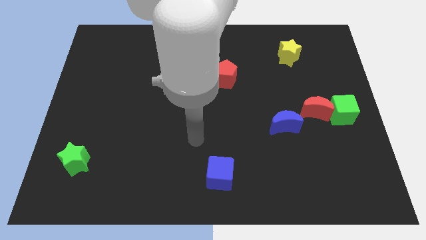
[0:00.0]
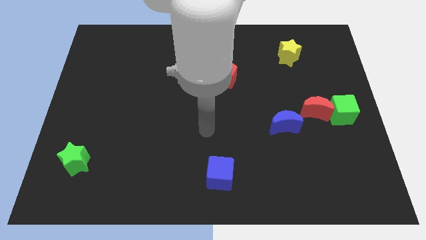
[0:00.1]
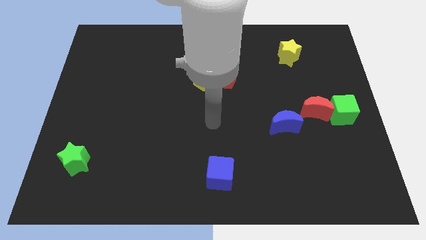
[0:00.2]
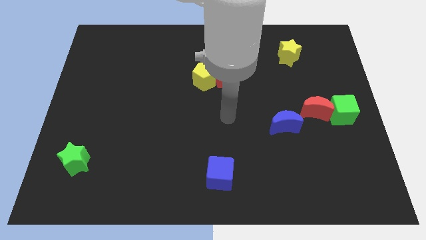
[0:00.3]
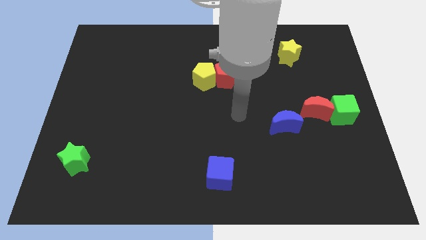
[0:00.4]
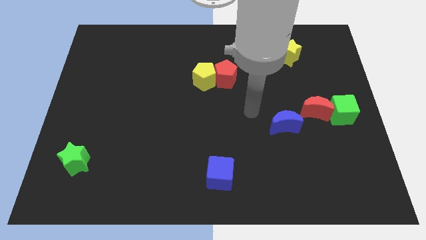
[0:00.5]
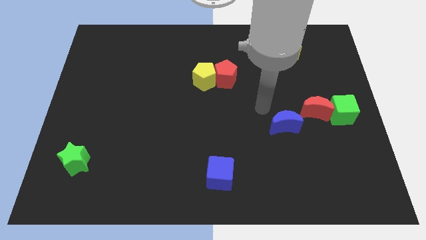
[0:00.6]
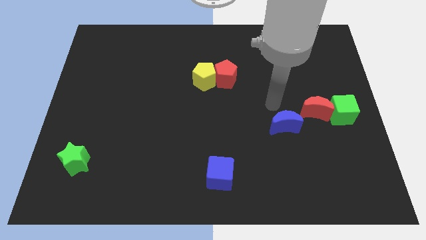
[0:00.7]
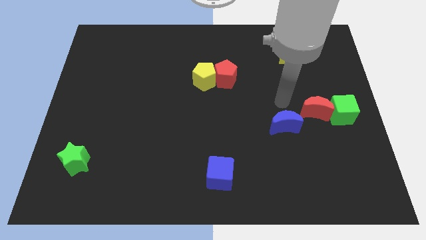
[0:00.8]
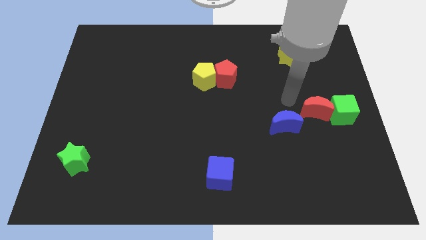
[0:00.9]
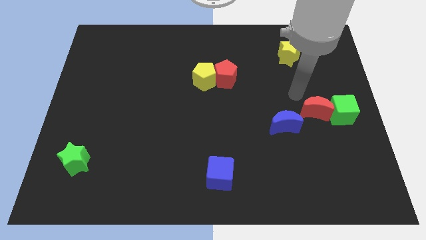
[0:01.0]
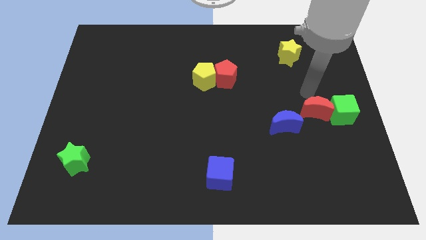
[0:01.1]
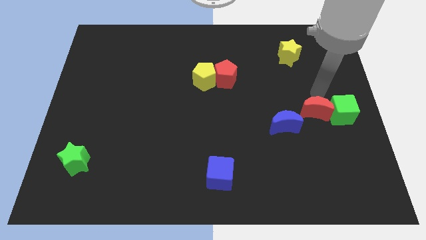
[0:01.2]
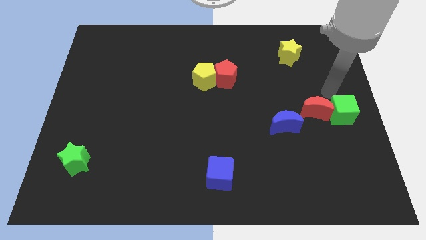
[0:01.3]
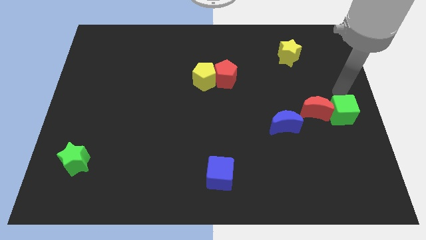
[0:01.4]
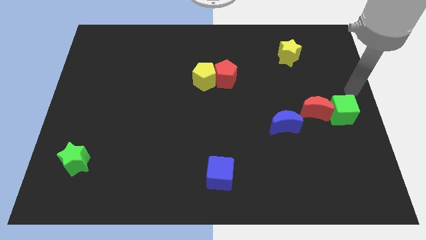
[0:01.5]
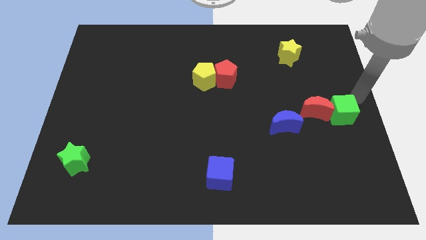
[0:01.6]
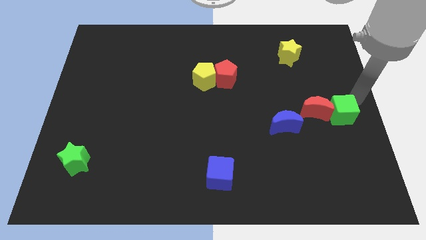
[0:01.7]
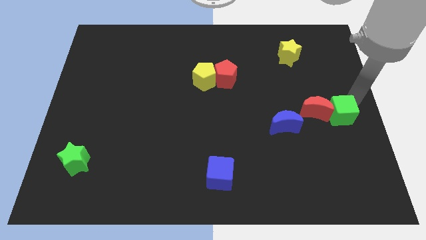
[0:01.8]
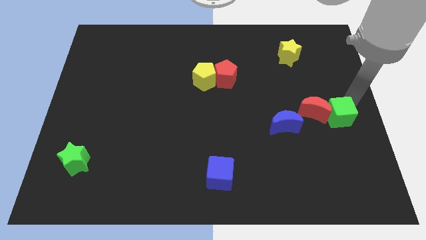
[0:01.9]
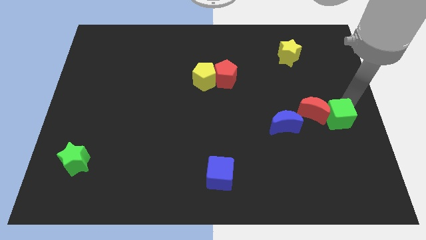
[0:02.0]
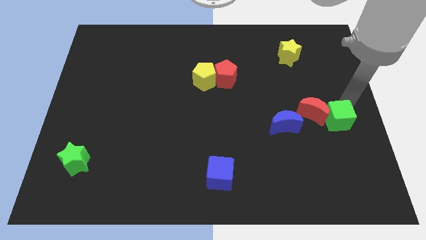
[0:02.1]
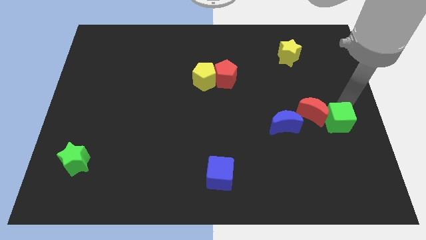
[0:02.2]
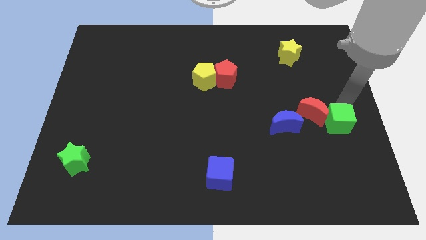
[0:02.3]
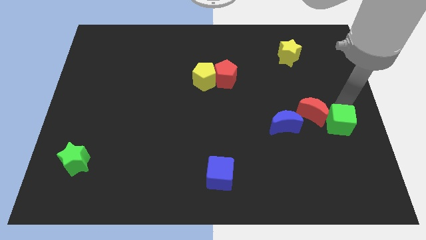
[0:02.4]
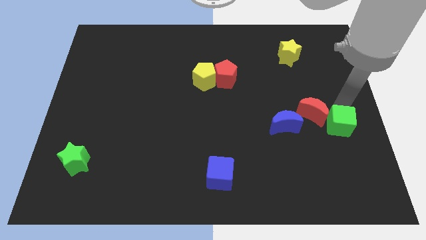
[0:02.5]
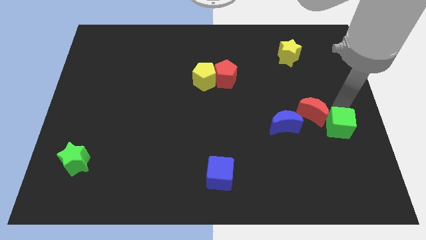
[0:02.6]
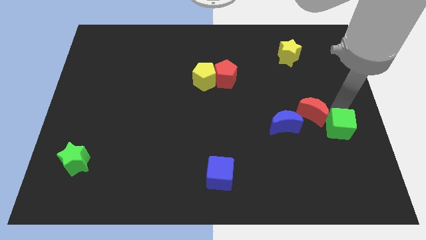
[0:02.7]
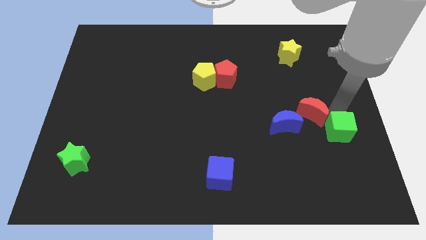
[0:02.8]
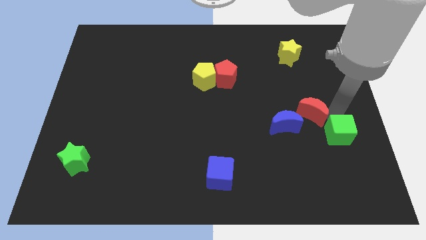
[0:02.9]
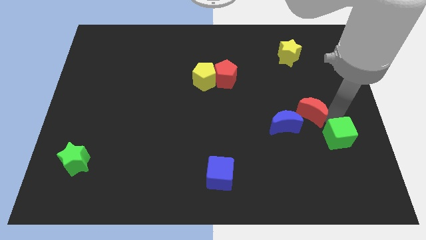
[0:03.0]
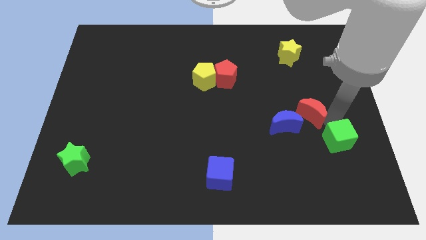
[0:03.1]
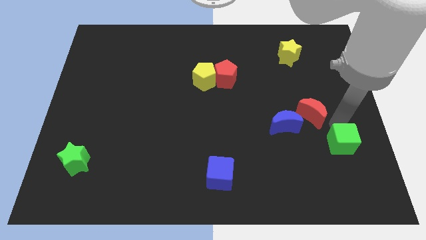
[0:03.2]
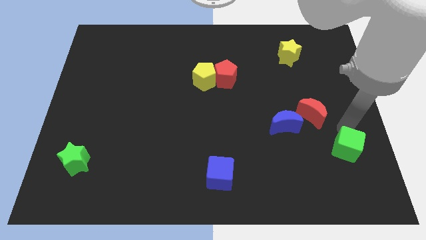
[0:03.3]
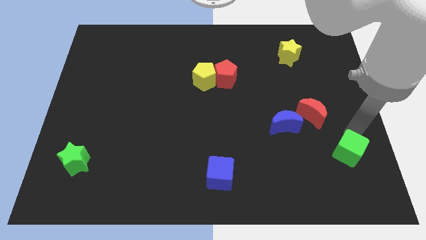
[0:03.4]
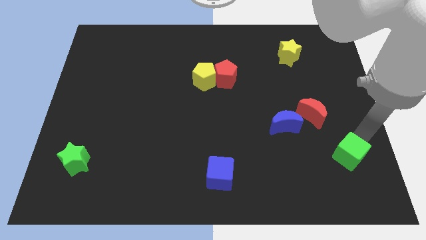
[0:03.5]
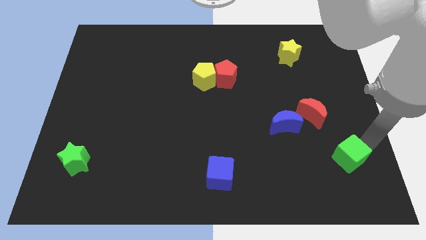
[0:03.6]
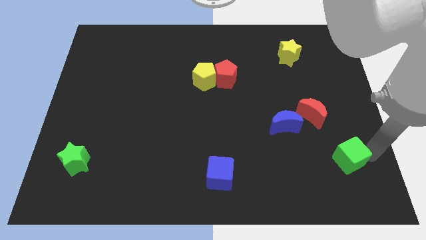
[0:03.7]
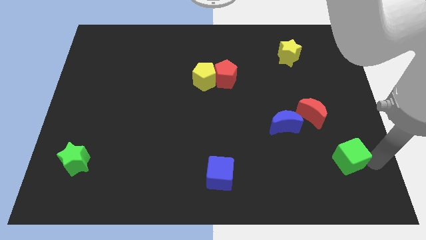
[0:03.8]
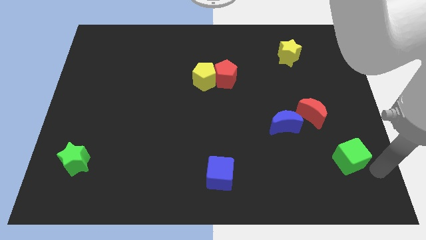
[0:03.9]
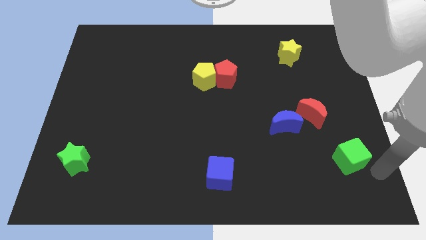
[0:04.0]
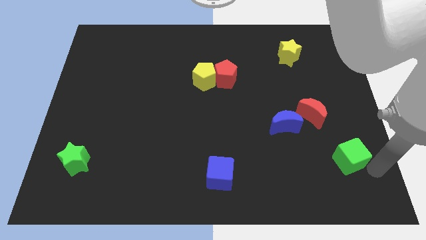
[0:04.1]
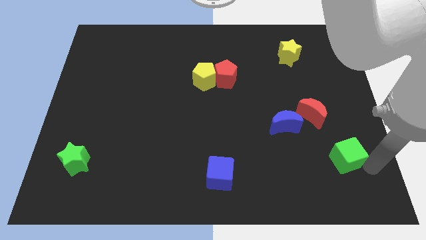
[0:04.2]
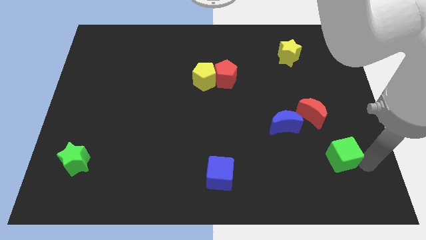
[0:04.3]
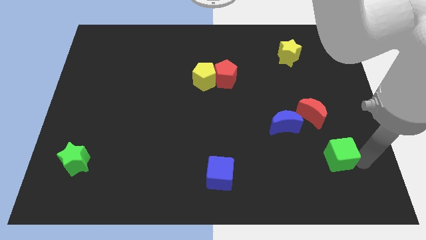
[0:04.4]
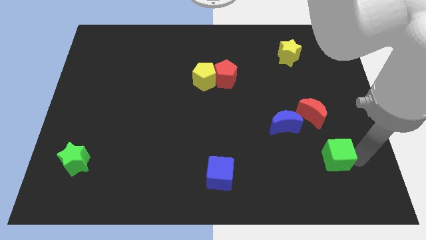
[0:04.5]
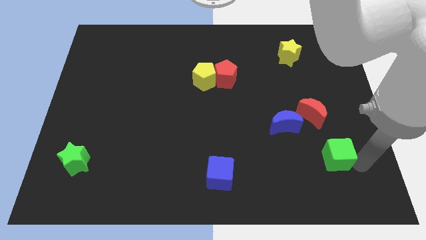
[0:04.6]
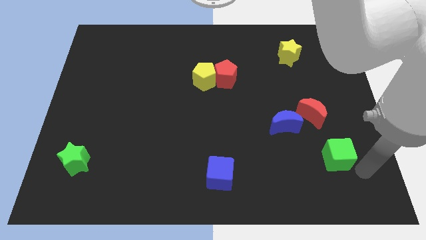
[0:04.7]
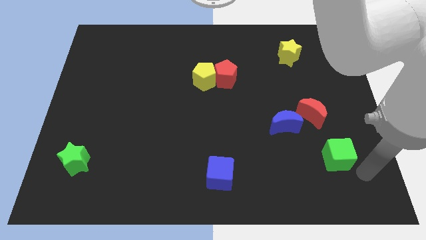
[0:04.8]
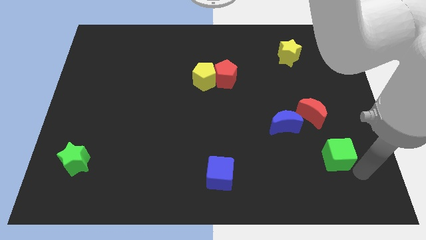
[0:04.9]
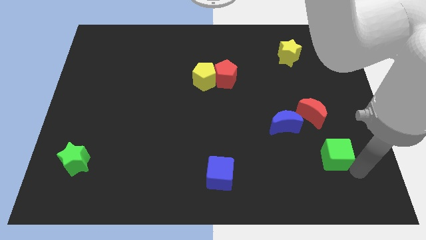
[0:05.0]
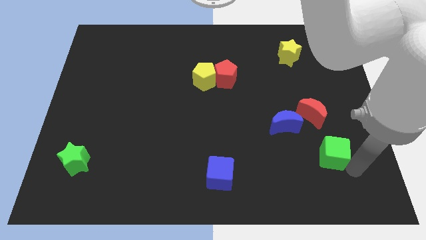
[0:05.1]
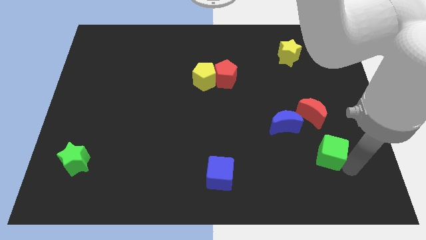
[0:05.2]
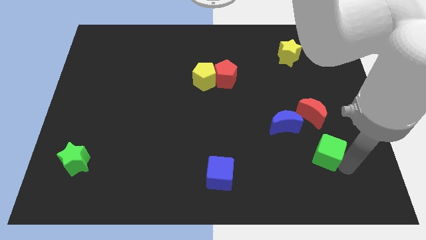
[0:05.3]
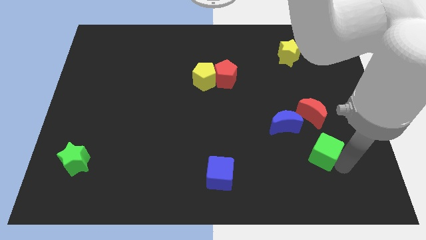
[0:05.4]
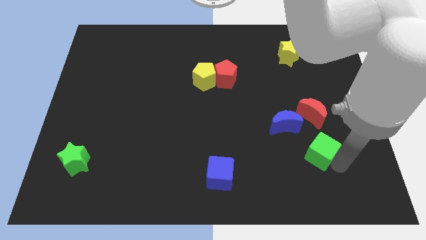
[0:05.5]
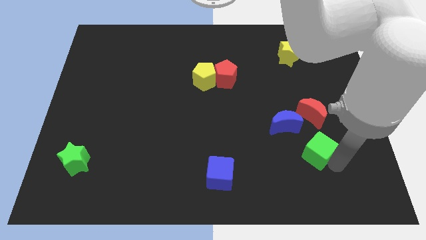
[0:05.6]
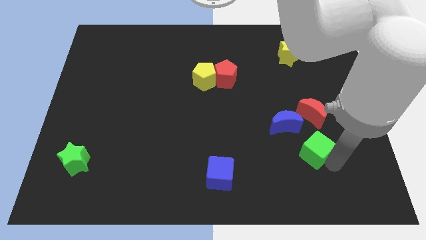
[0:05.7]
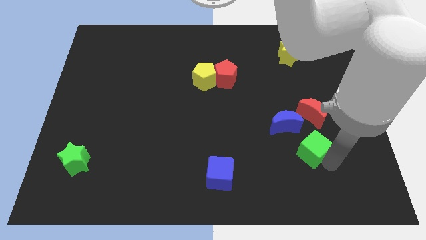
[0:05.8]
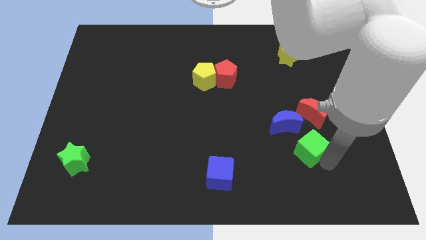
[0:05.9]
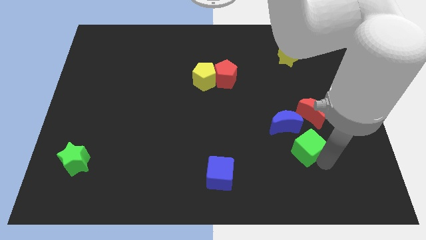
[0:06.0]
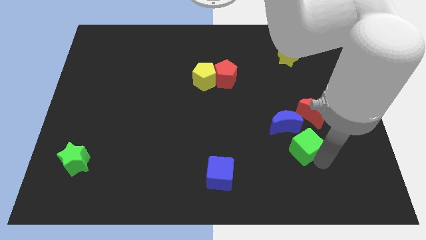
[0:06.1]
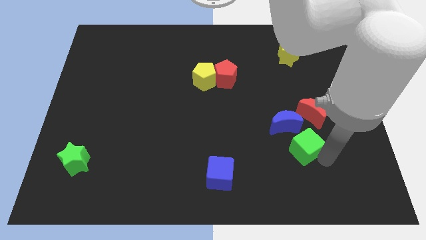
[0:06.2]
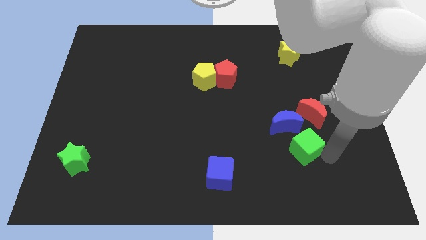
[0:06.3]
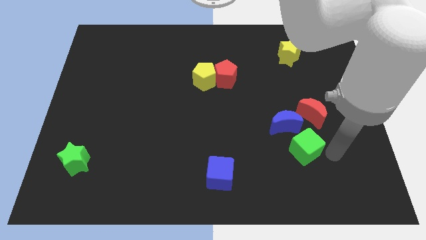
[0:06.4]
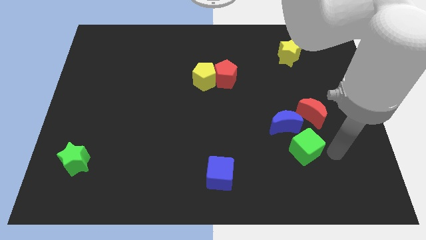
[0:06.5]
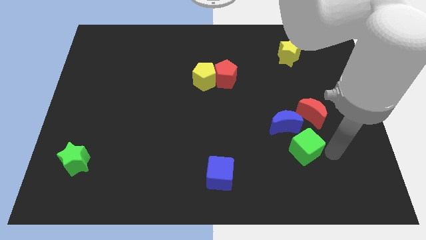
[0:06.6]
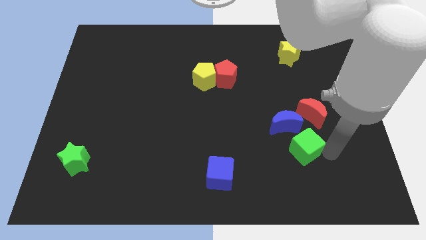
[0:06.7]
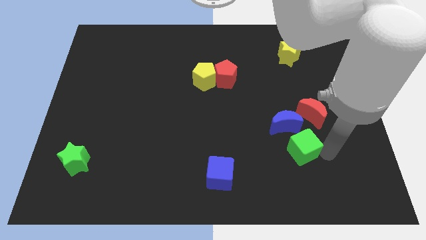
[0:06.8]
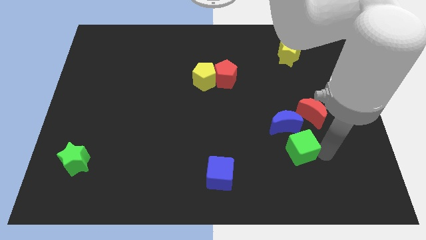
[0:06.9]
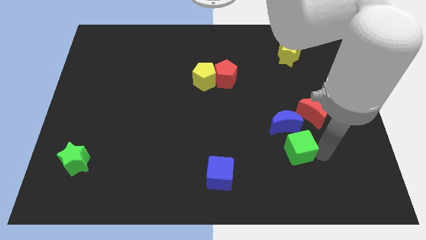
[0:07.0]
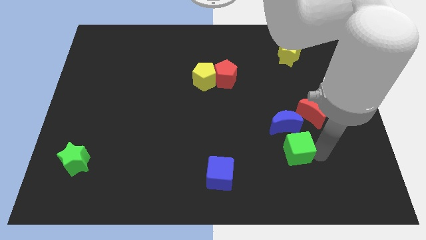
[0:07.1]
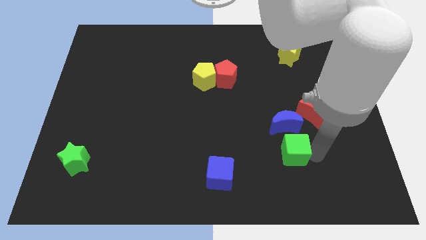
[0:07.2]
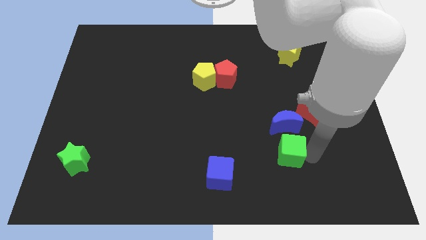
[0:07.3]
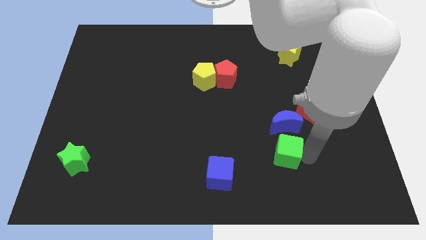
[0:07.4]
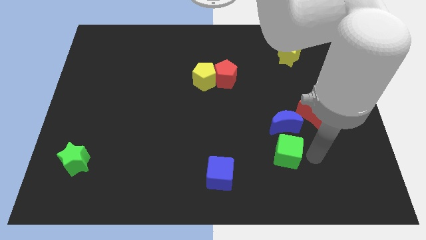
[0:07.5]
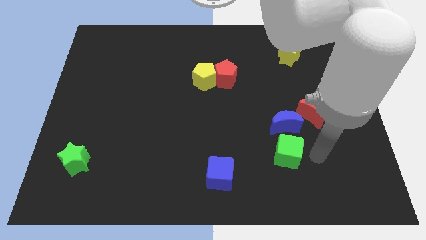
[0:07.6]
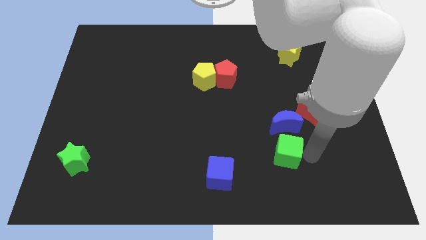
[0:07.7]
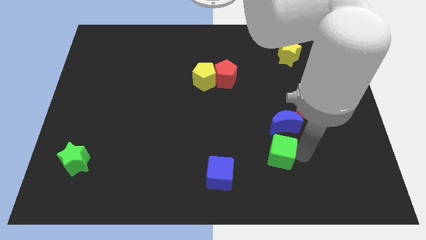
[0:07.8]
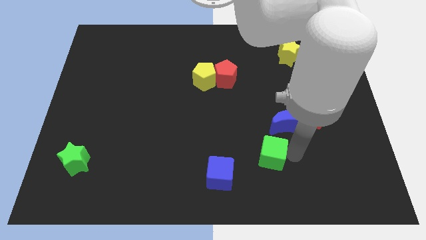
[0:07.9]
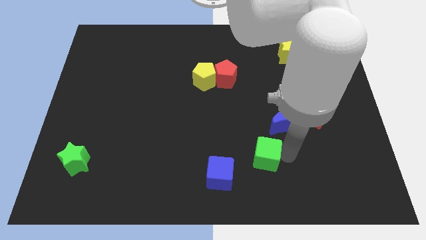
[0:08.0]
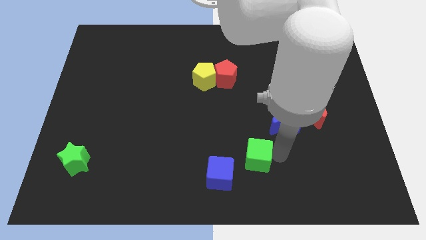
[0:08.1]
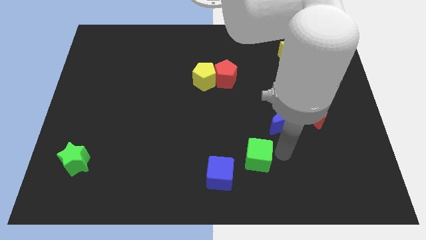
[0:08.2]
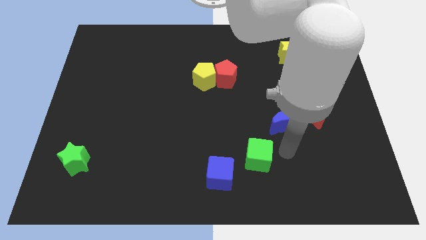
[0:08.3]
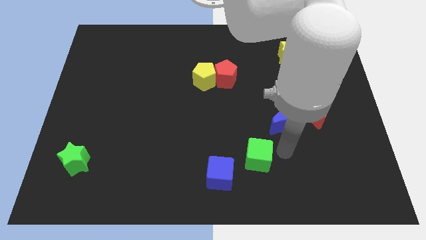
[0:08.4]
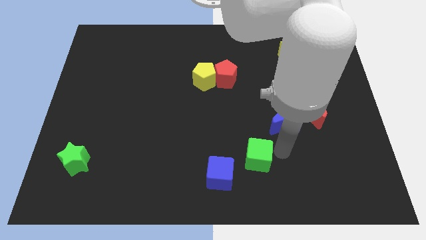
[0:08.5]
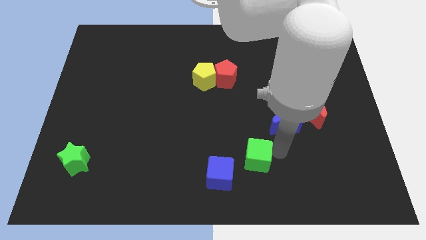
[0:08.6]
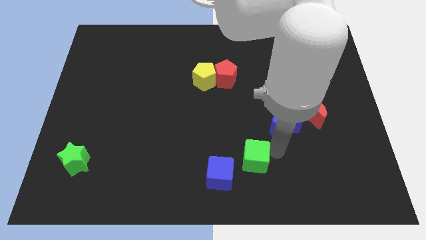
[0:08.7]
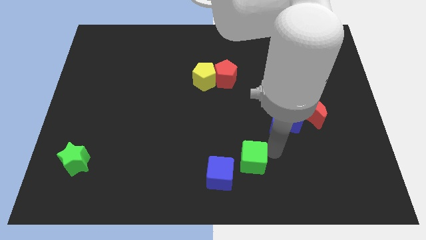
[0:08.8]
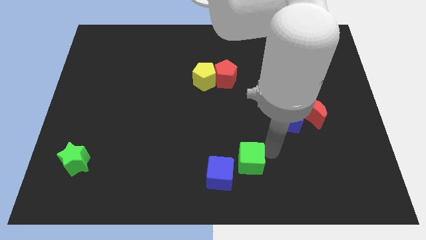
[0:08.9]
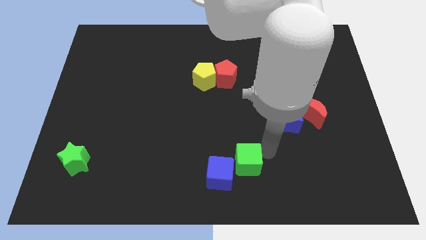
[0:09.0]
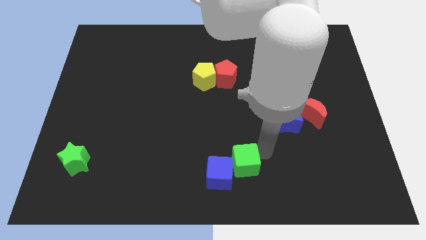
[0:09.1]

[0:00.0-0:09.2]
put the green cube to the blue cube
